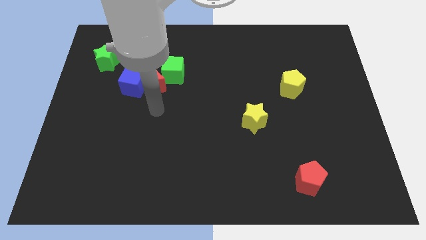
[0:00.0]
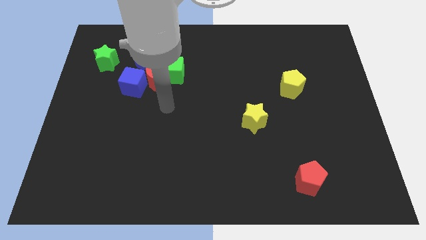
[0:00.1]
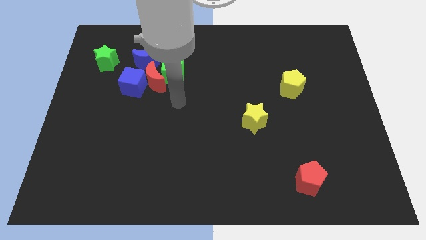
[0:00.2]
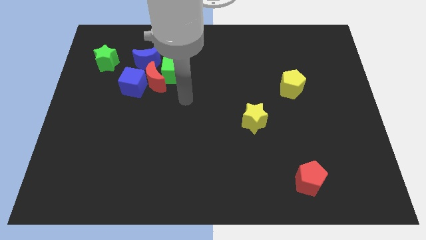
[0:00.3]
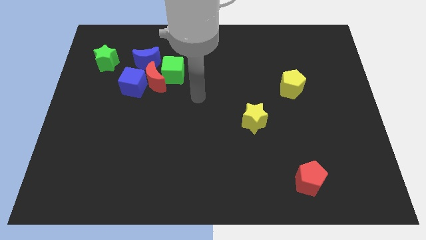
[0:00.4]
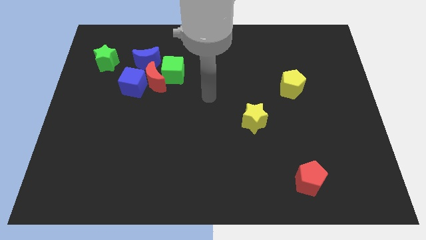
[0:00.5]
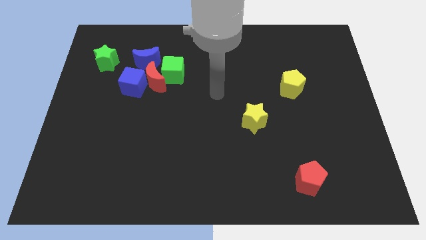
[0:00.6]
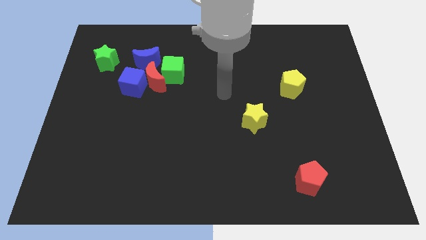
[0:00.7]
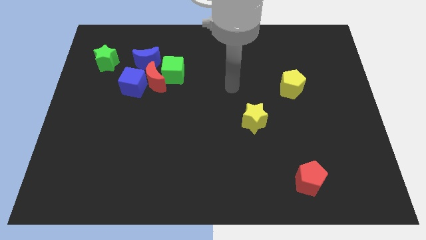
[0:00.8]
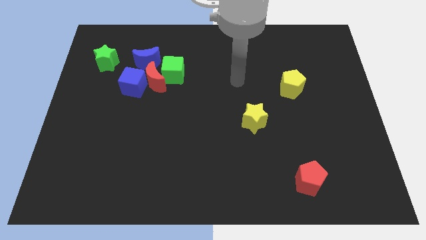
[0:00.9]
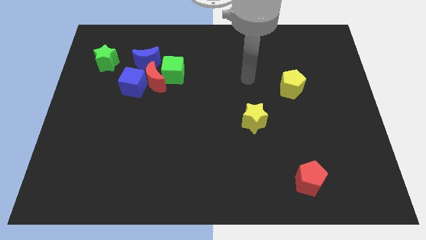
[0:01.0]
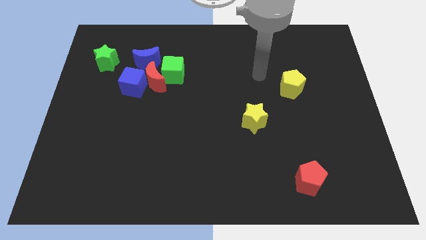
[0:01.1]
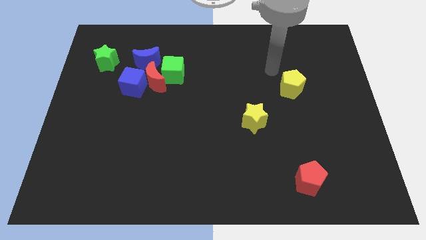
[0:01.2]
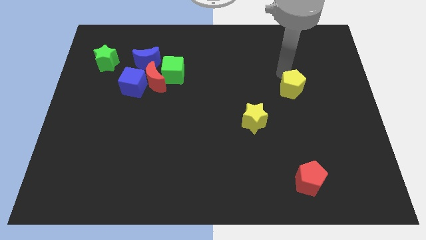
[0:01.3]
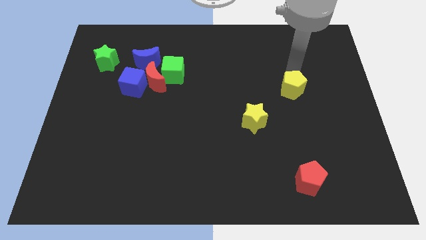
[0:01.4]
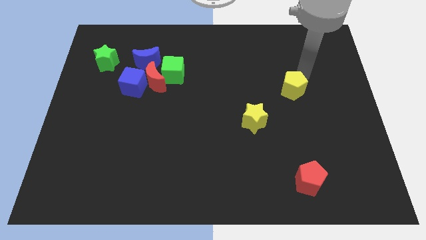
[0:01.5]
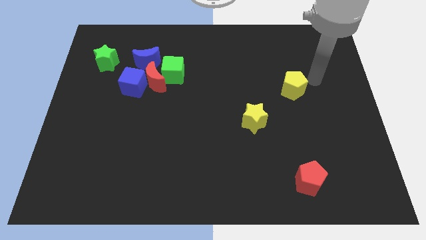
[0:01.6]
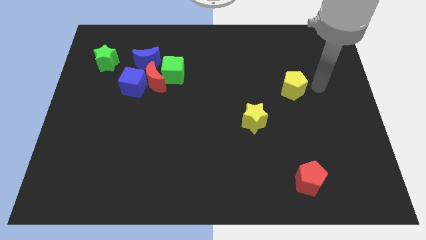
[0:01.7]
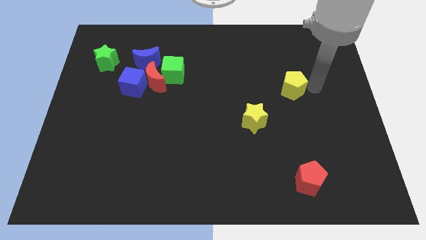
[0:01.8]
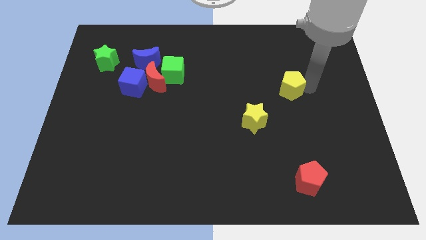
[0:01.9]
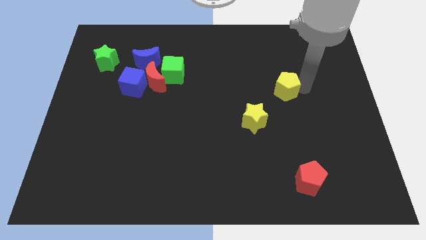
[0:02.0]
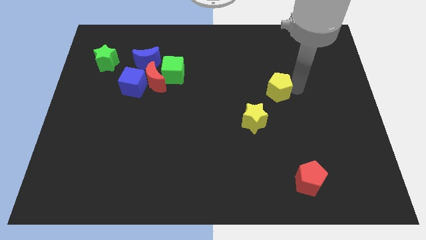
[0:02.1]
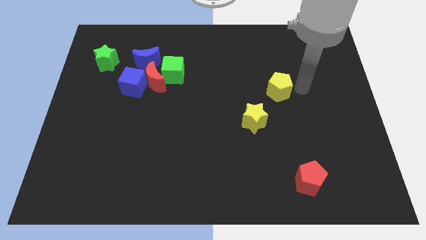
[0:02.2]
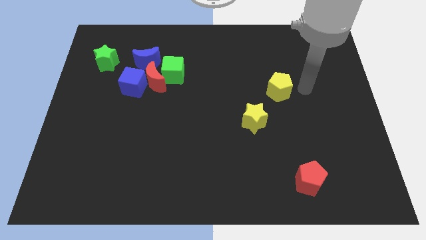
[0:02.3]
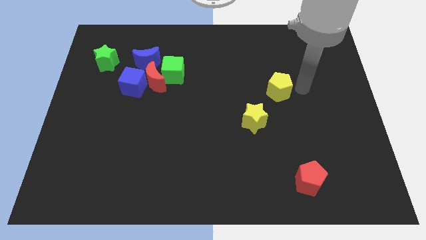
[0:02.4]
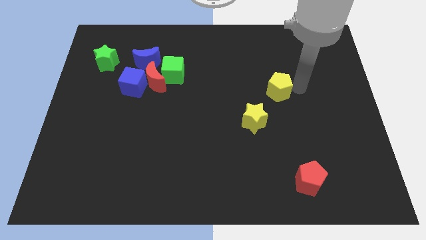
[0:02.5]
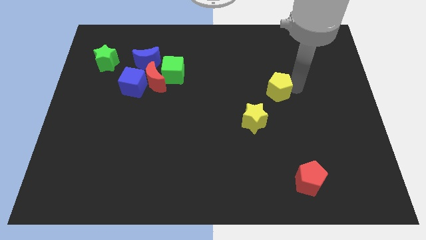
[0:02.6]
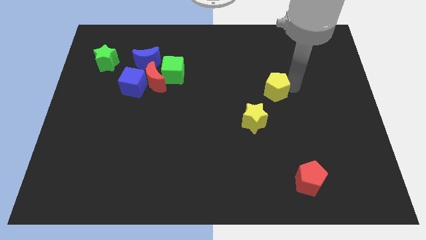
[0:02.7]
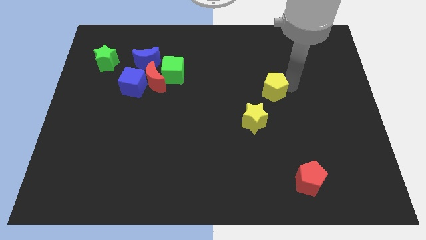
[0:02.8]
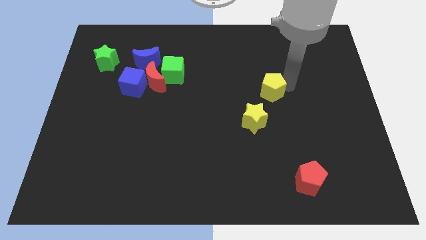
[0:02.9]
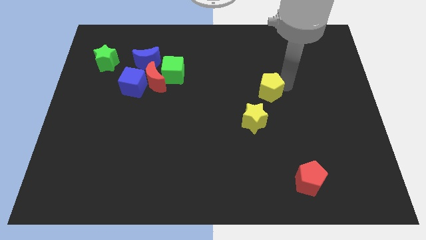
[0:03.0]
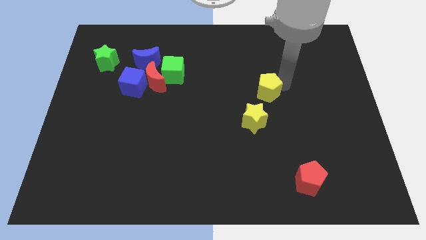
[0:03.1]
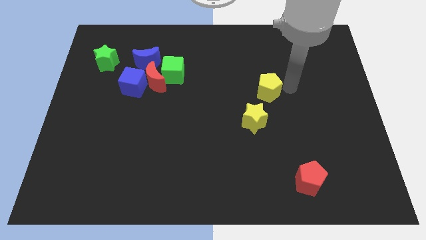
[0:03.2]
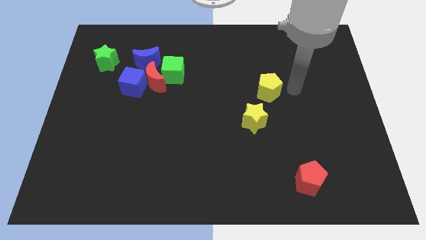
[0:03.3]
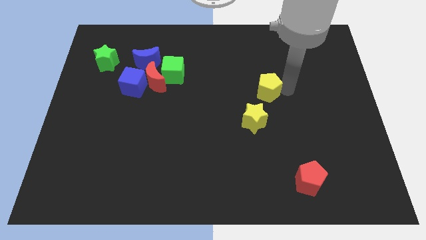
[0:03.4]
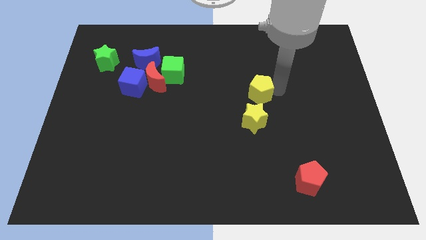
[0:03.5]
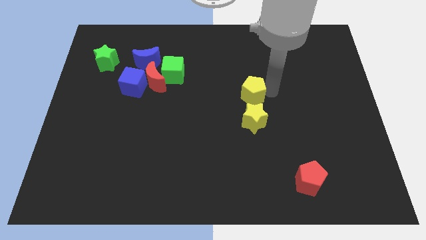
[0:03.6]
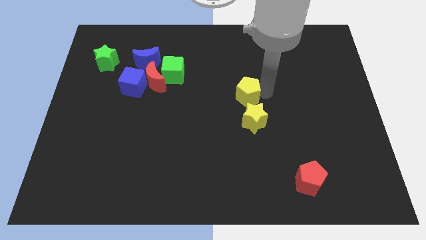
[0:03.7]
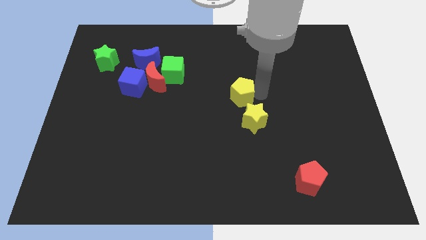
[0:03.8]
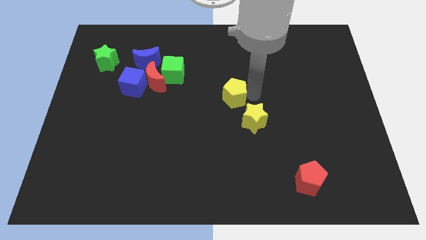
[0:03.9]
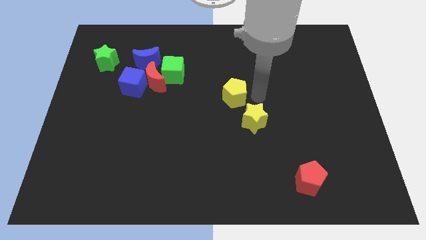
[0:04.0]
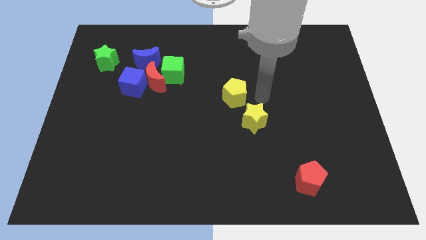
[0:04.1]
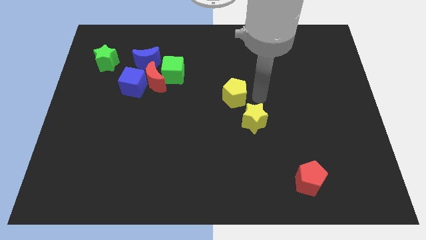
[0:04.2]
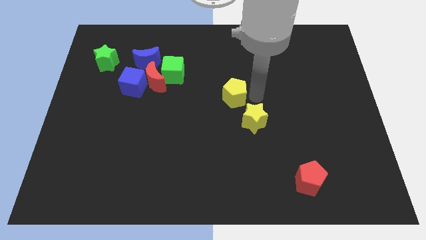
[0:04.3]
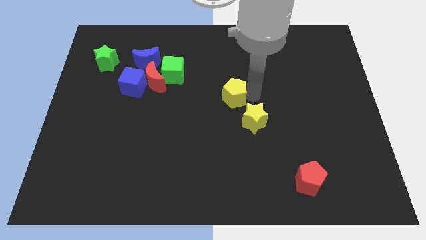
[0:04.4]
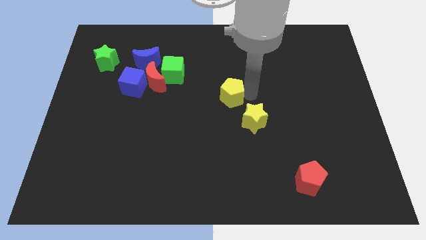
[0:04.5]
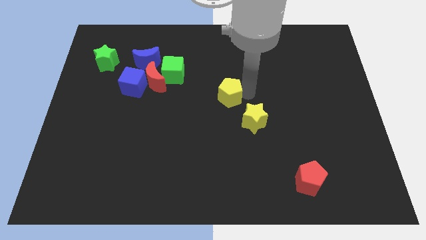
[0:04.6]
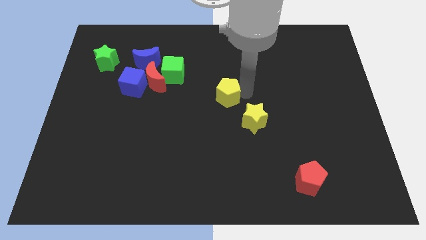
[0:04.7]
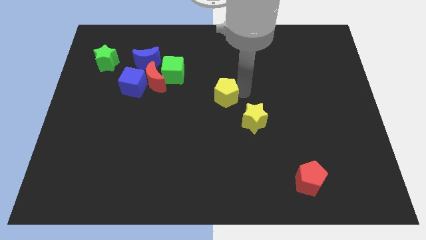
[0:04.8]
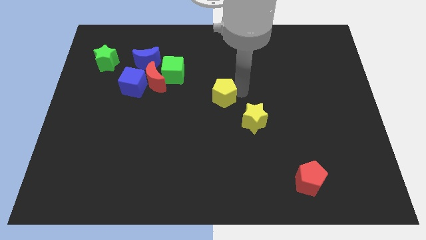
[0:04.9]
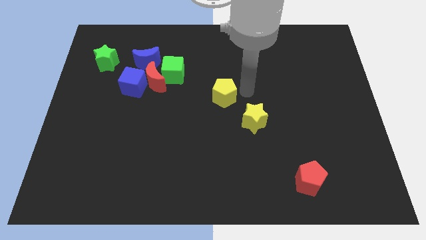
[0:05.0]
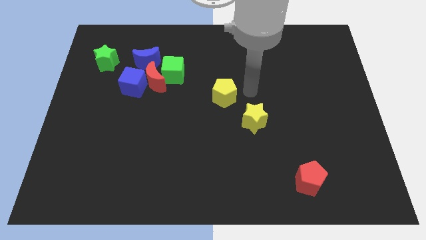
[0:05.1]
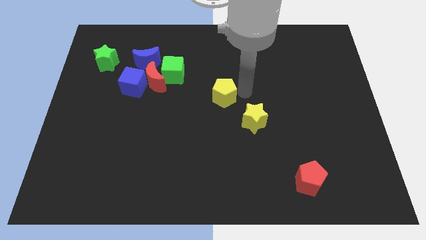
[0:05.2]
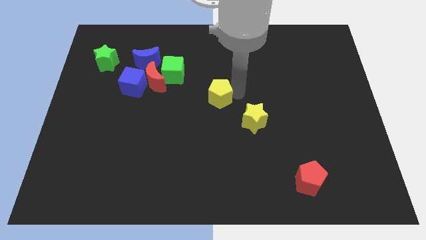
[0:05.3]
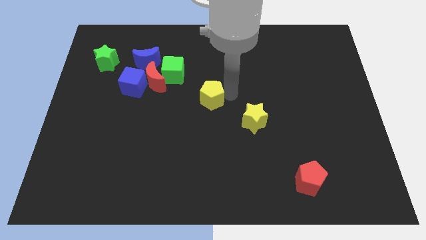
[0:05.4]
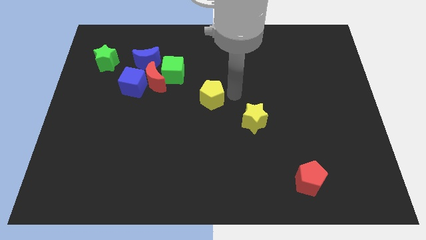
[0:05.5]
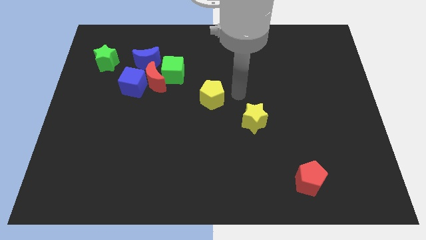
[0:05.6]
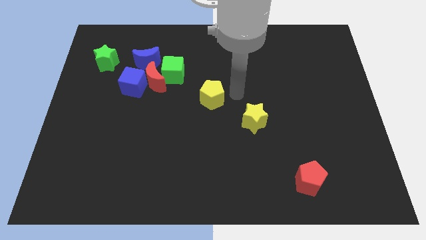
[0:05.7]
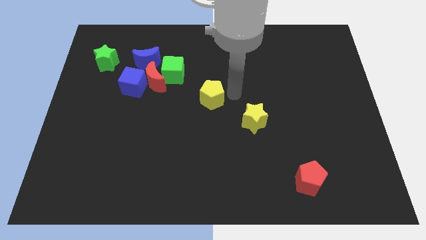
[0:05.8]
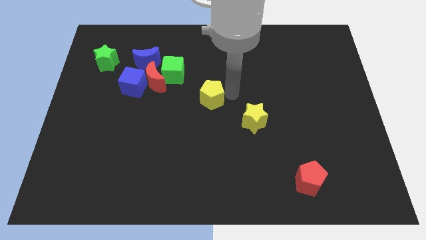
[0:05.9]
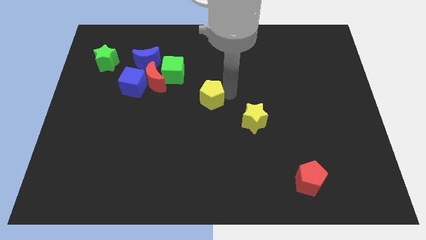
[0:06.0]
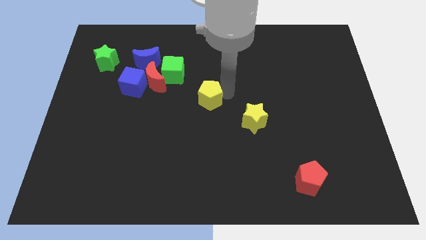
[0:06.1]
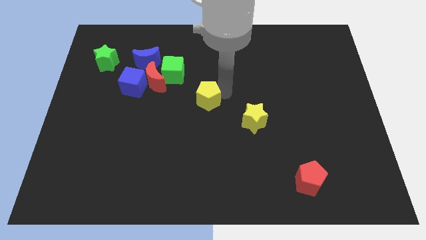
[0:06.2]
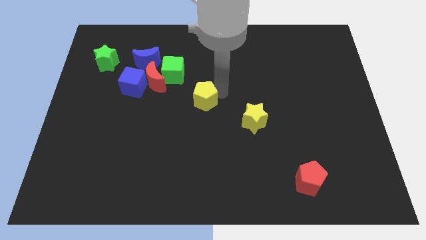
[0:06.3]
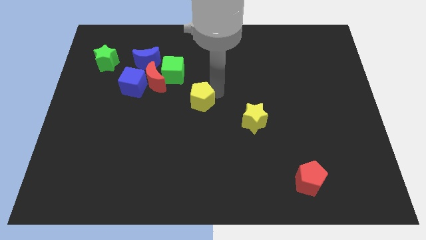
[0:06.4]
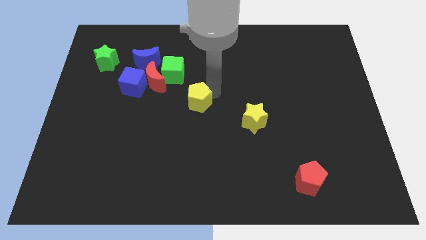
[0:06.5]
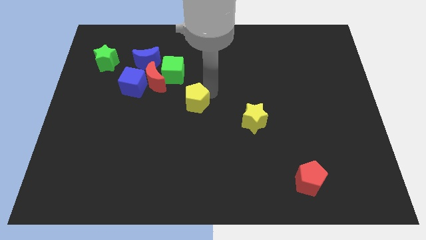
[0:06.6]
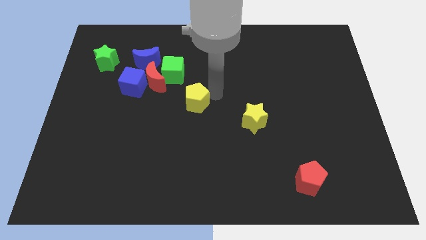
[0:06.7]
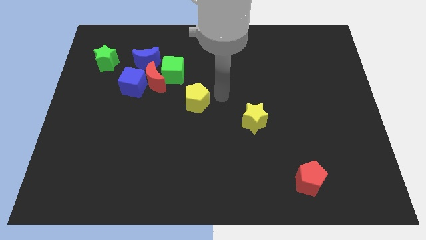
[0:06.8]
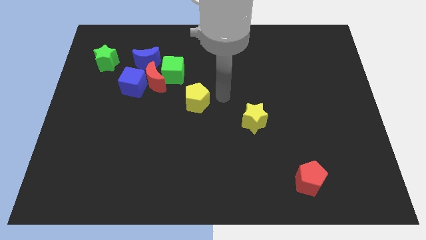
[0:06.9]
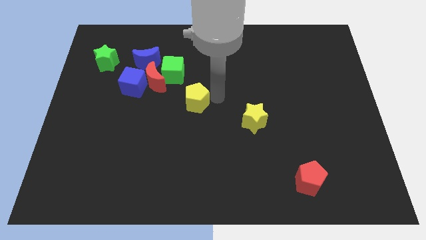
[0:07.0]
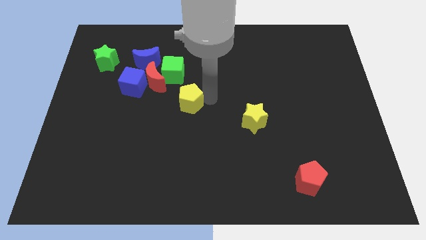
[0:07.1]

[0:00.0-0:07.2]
push the yellow pentagon to the bottom side of the green cube
